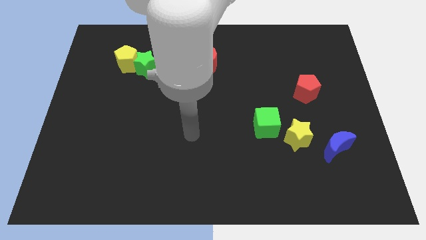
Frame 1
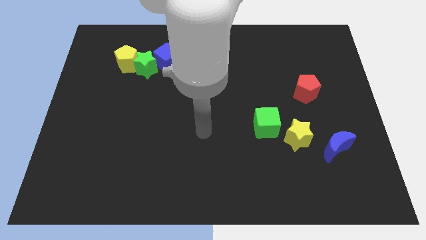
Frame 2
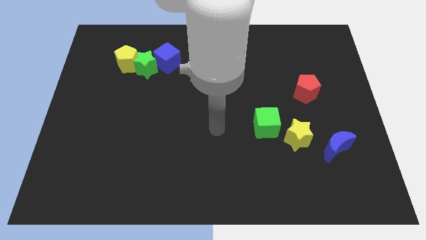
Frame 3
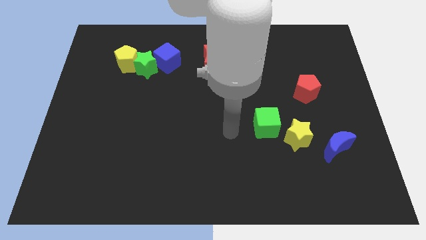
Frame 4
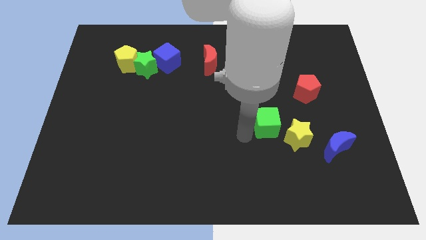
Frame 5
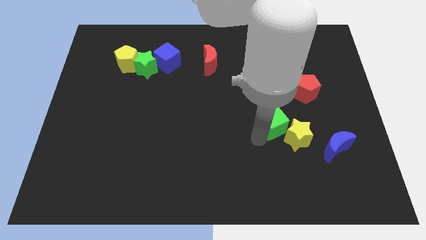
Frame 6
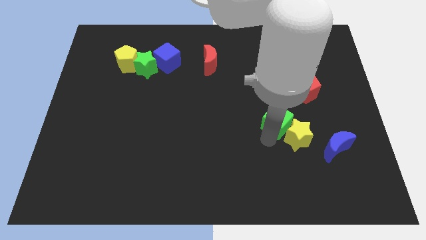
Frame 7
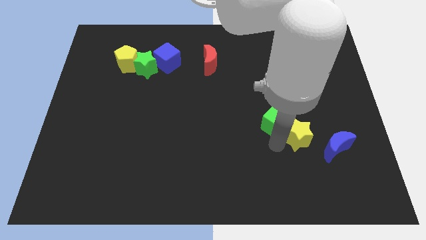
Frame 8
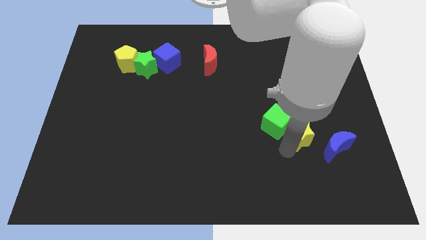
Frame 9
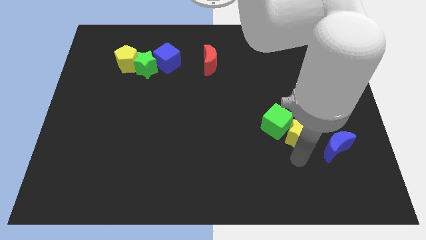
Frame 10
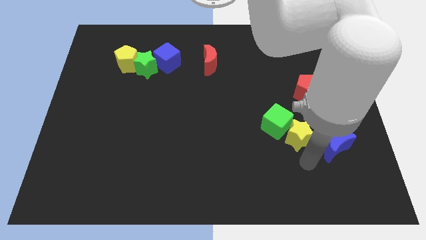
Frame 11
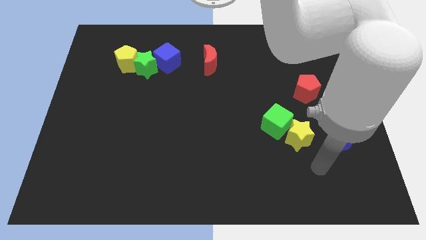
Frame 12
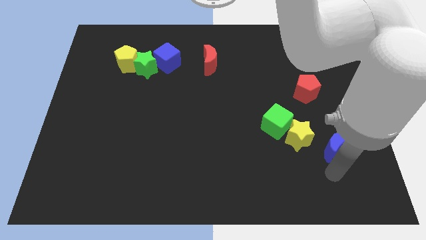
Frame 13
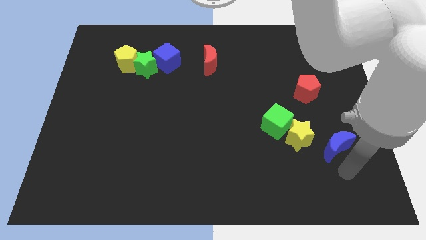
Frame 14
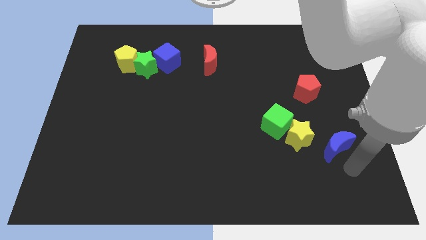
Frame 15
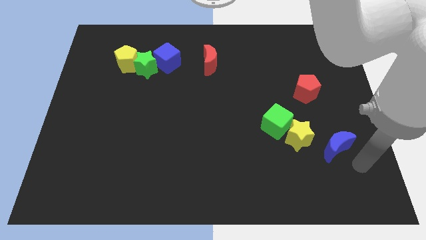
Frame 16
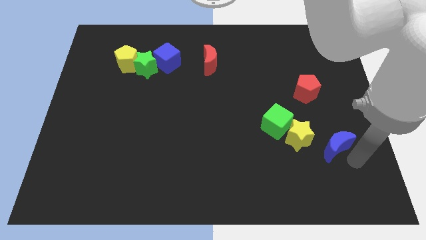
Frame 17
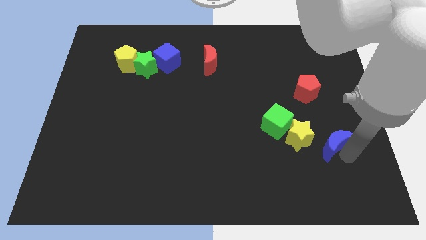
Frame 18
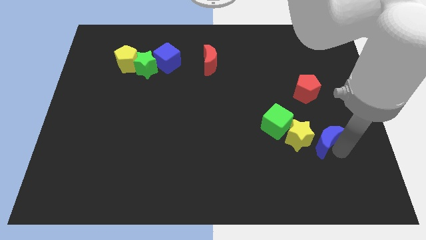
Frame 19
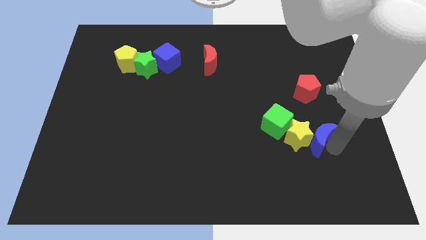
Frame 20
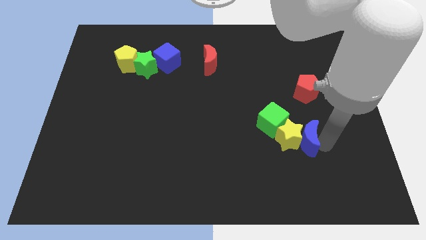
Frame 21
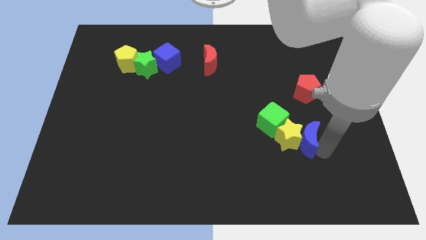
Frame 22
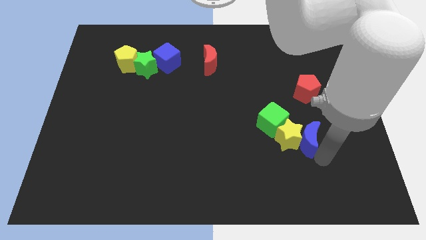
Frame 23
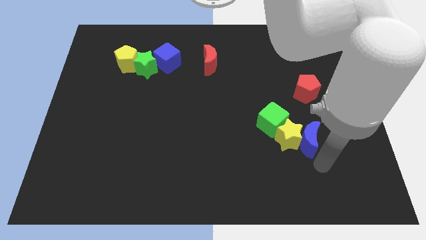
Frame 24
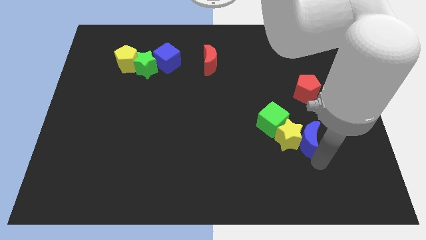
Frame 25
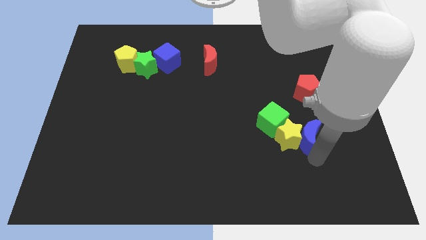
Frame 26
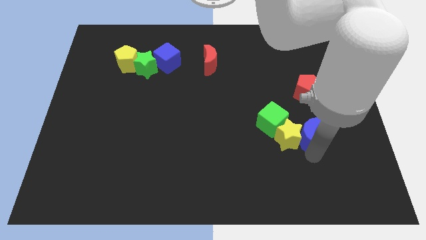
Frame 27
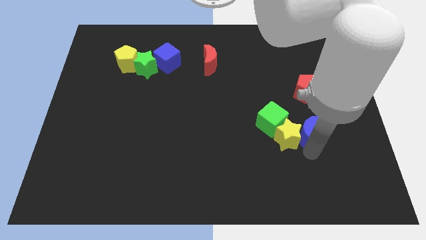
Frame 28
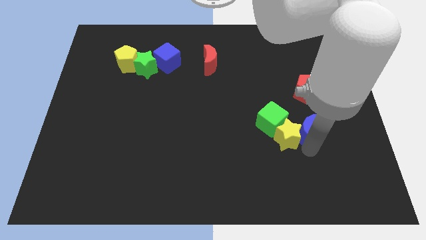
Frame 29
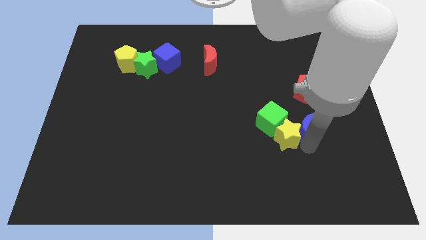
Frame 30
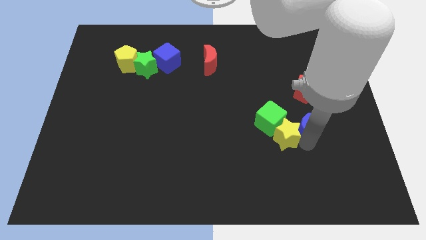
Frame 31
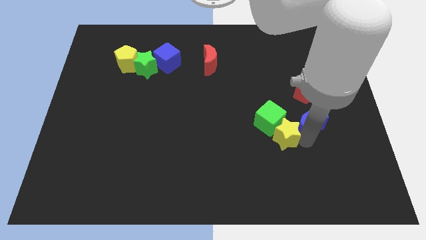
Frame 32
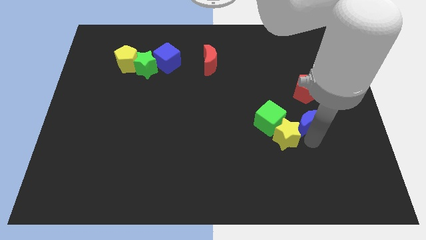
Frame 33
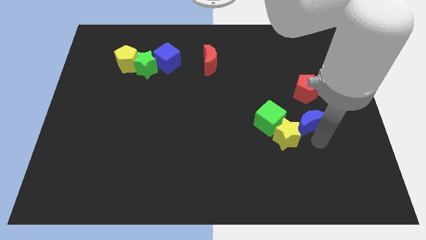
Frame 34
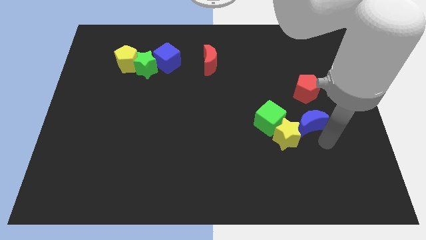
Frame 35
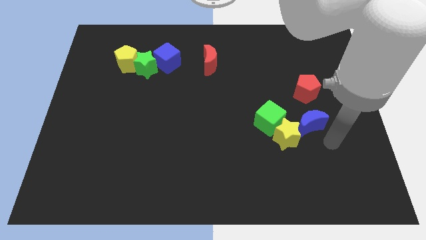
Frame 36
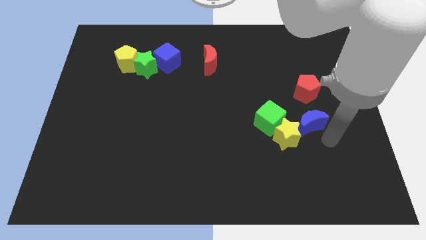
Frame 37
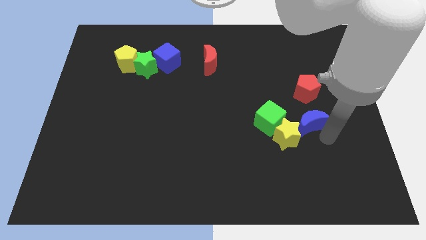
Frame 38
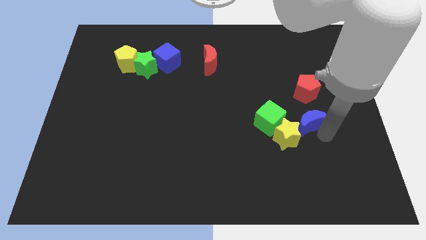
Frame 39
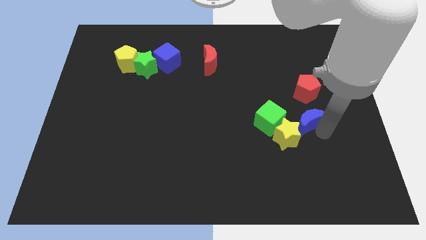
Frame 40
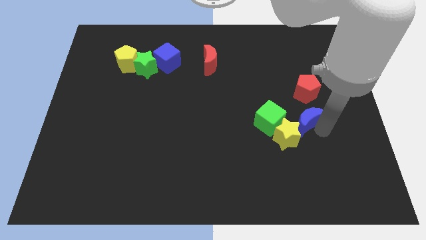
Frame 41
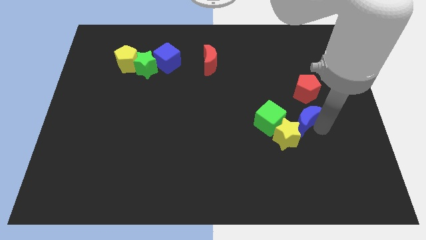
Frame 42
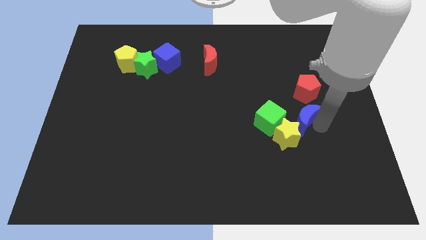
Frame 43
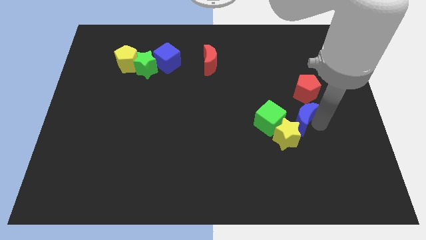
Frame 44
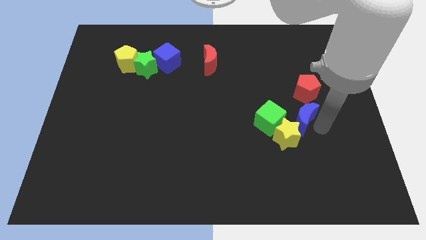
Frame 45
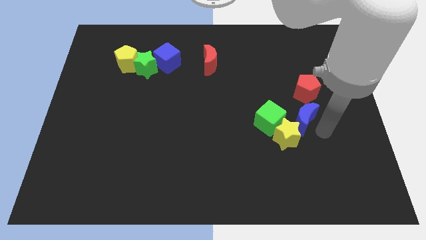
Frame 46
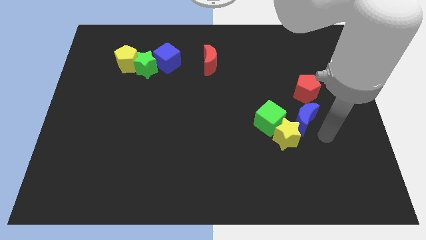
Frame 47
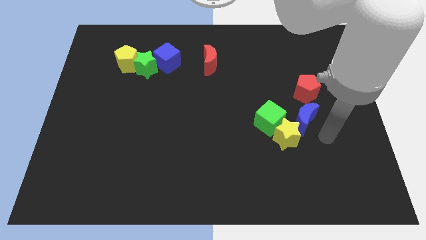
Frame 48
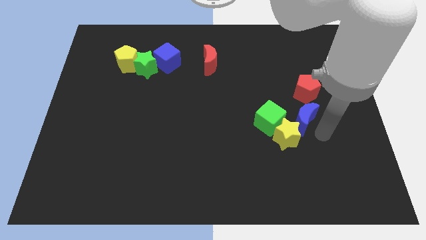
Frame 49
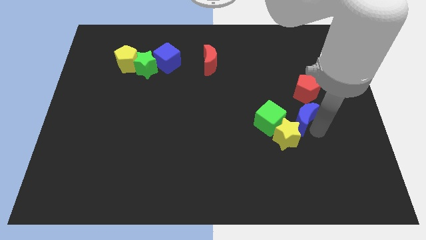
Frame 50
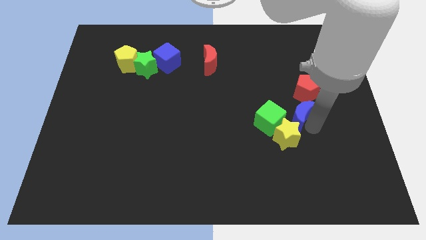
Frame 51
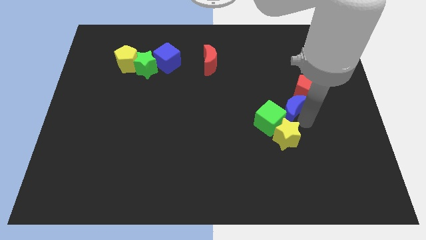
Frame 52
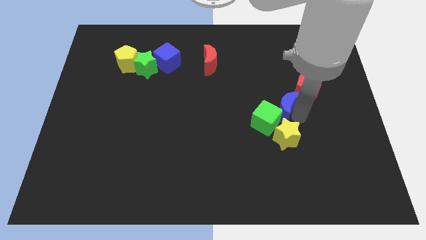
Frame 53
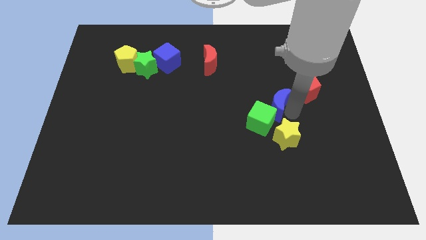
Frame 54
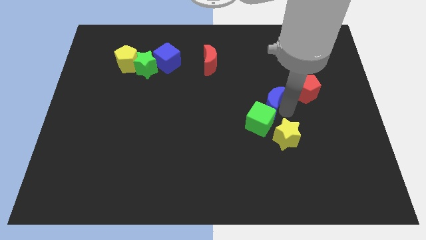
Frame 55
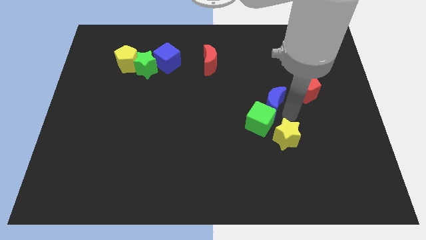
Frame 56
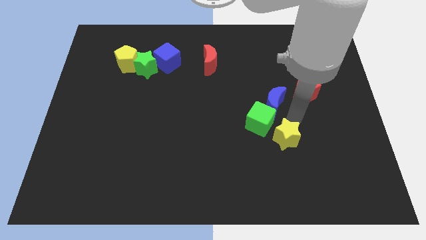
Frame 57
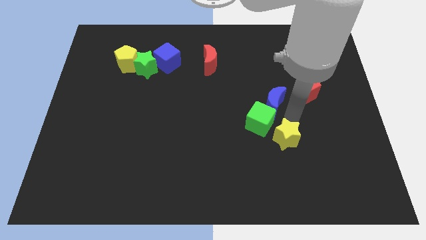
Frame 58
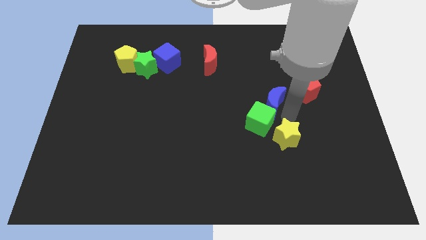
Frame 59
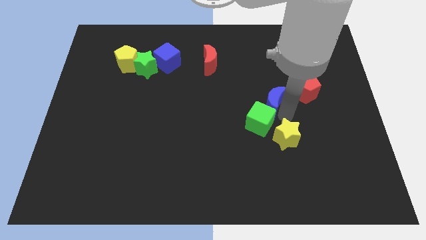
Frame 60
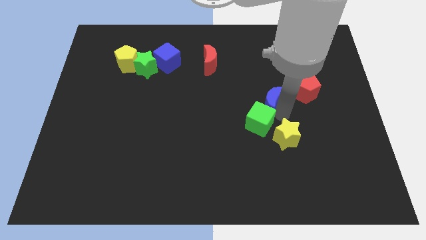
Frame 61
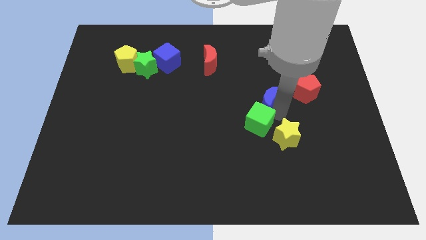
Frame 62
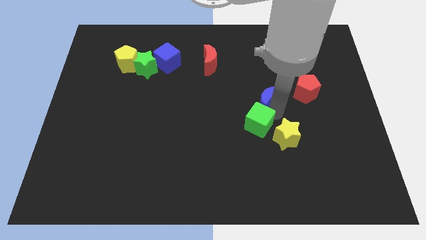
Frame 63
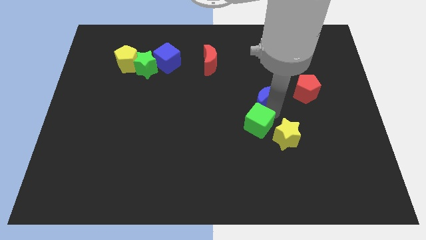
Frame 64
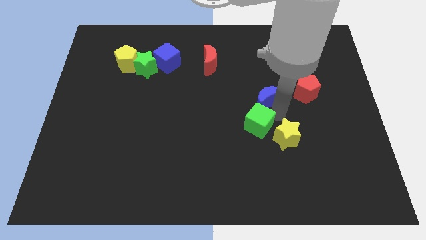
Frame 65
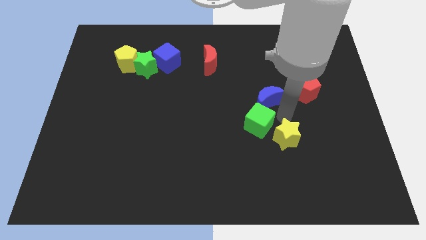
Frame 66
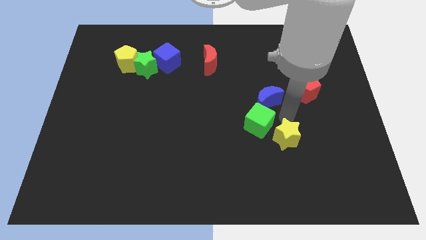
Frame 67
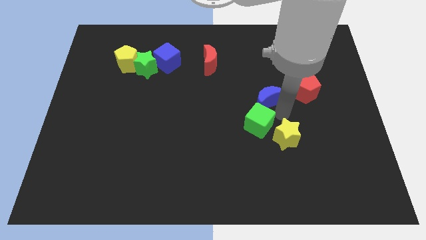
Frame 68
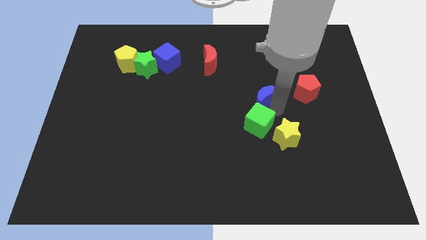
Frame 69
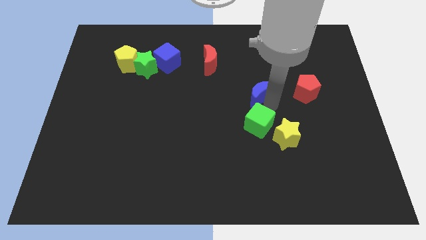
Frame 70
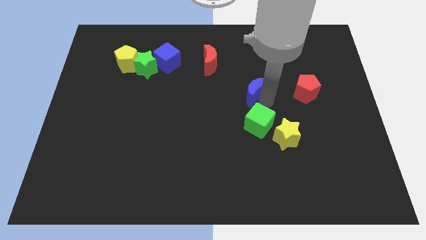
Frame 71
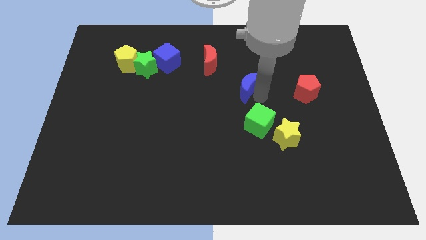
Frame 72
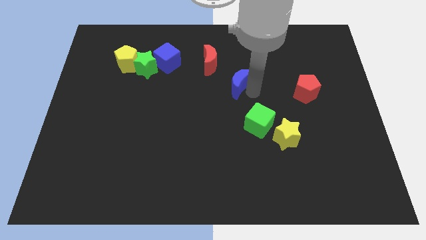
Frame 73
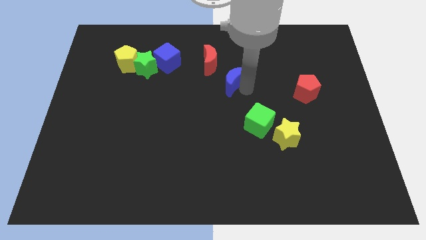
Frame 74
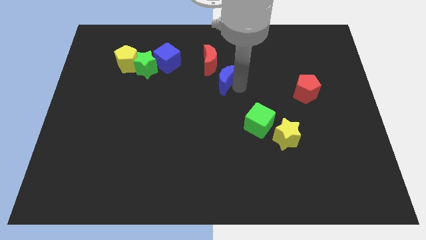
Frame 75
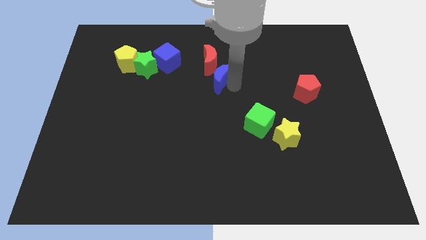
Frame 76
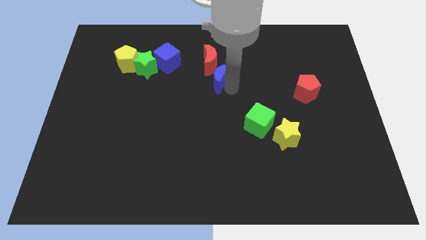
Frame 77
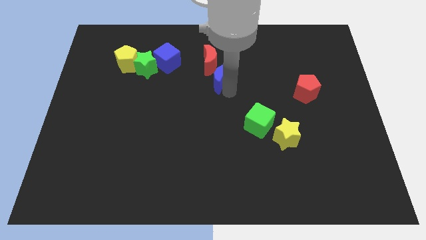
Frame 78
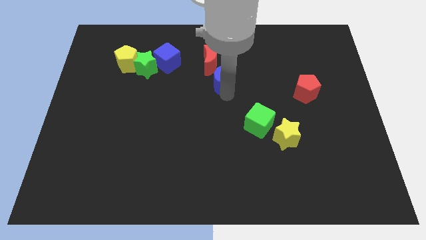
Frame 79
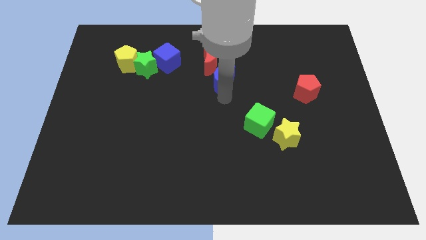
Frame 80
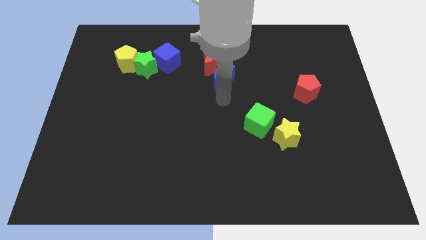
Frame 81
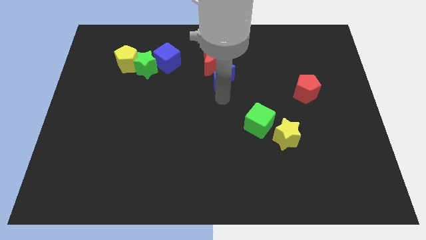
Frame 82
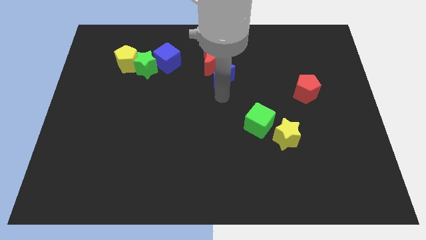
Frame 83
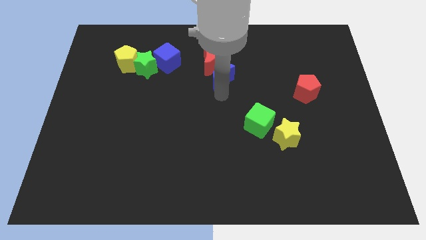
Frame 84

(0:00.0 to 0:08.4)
move the blue moon towards the red moon
